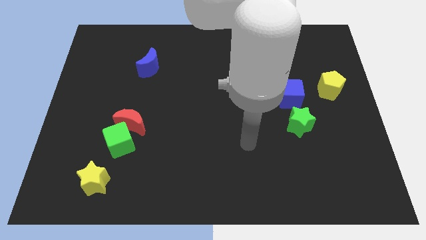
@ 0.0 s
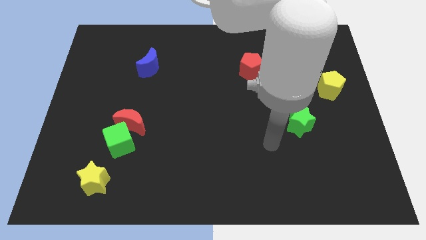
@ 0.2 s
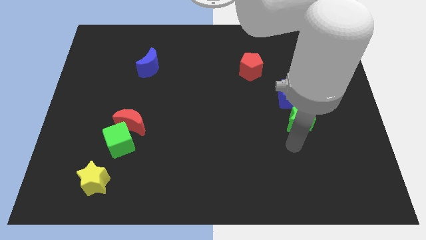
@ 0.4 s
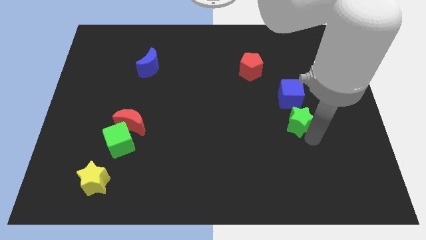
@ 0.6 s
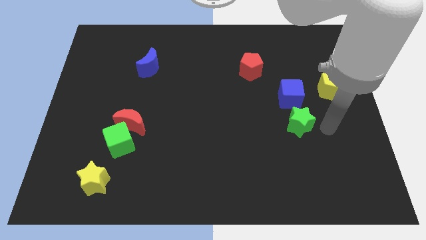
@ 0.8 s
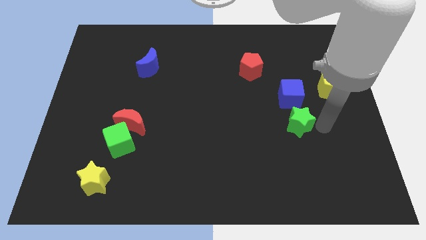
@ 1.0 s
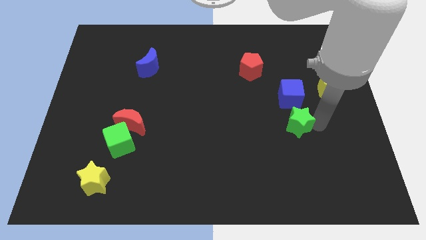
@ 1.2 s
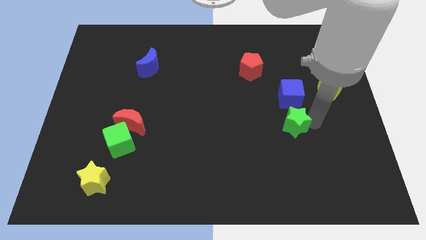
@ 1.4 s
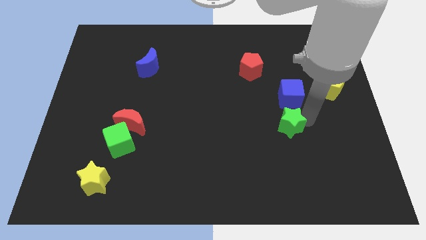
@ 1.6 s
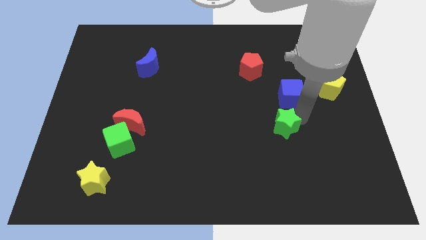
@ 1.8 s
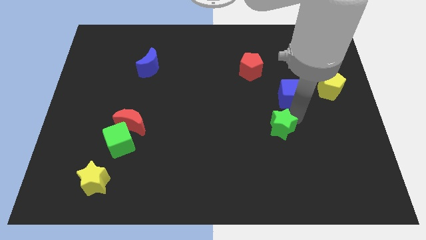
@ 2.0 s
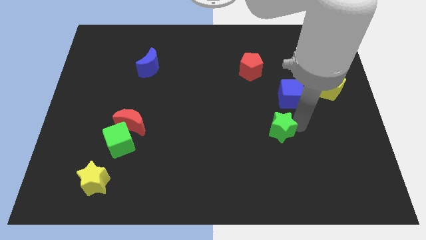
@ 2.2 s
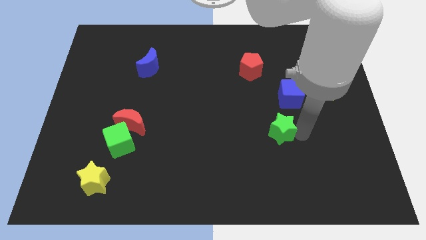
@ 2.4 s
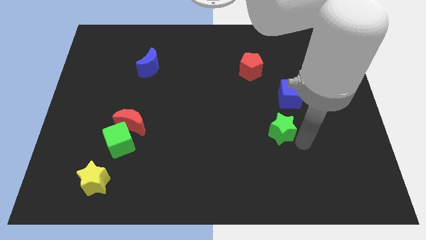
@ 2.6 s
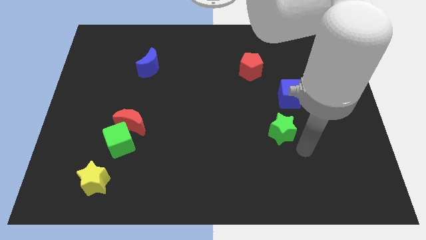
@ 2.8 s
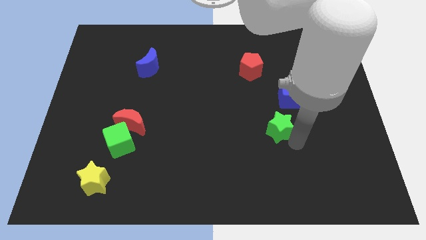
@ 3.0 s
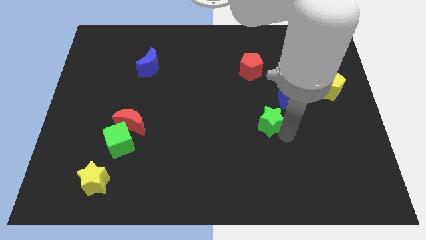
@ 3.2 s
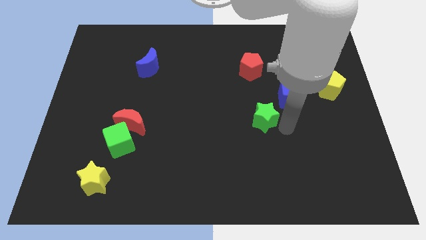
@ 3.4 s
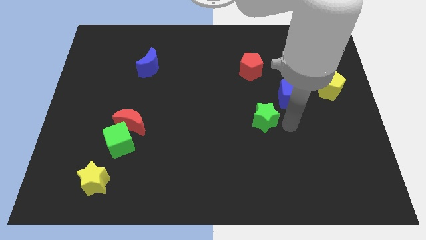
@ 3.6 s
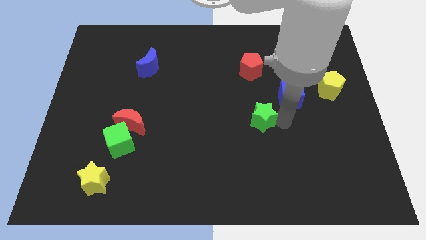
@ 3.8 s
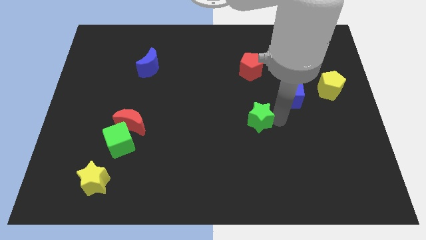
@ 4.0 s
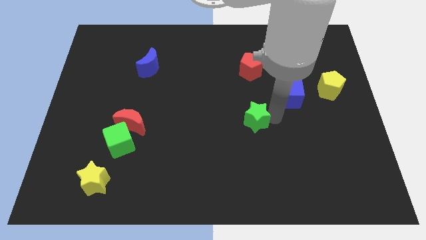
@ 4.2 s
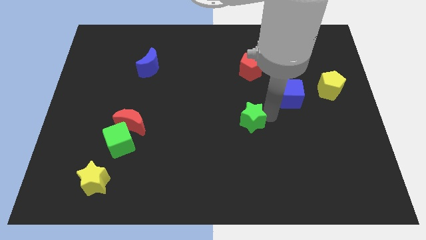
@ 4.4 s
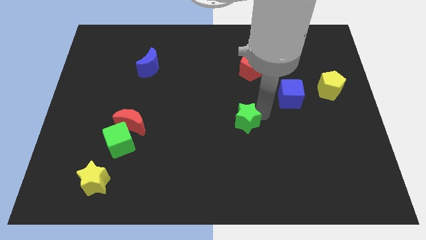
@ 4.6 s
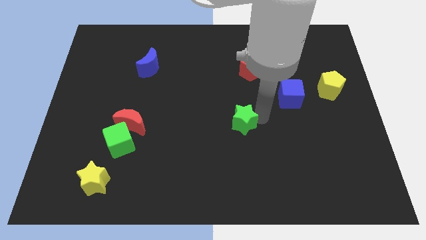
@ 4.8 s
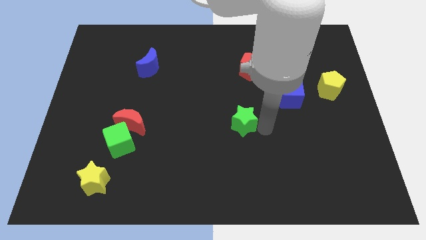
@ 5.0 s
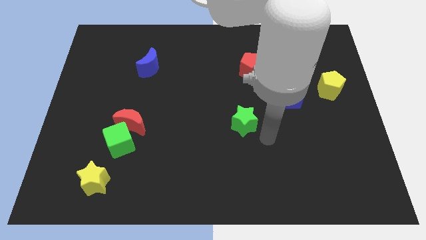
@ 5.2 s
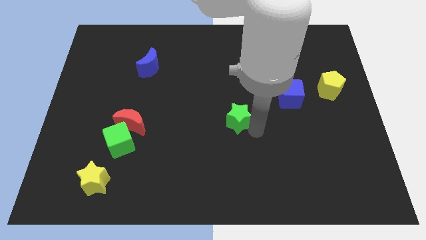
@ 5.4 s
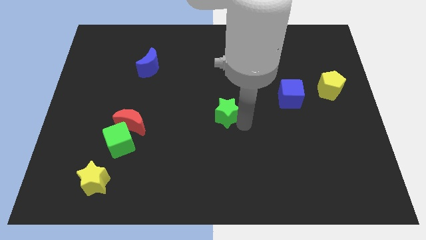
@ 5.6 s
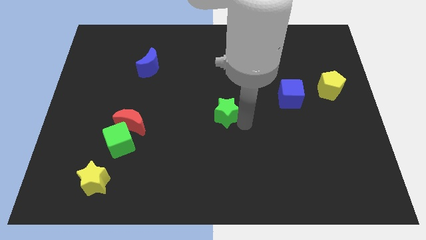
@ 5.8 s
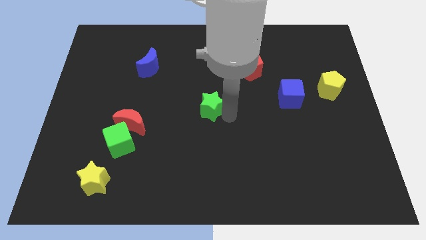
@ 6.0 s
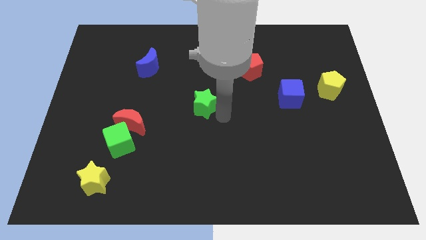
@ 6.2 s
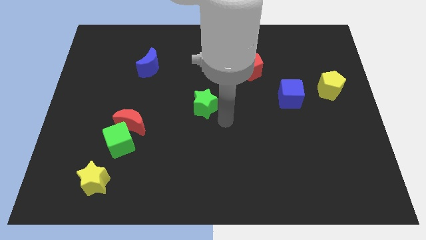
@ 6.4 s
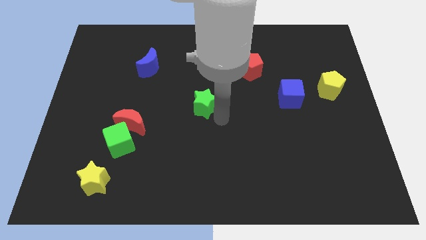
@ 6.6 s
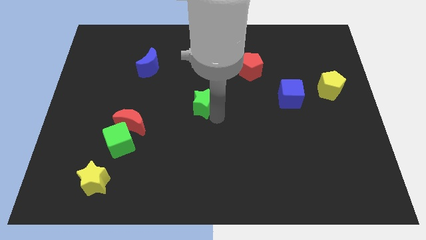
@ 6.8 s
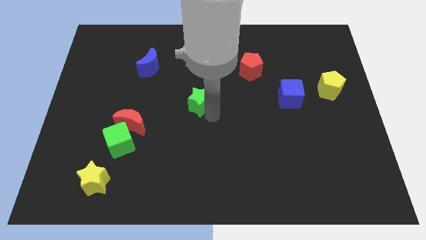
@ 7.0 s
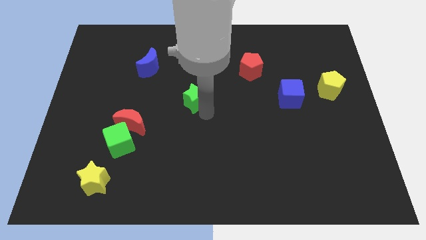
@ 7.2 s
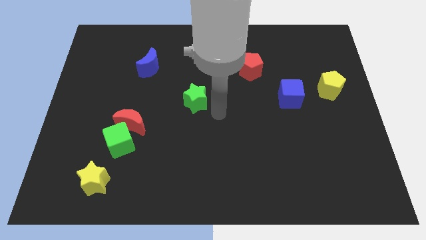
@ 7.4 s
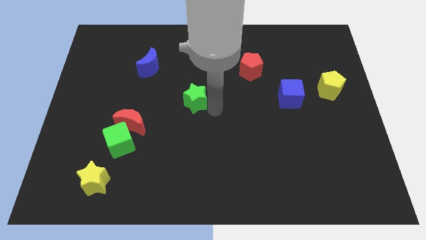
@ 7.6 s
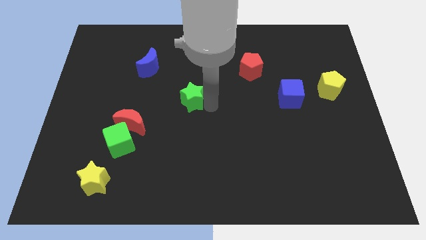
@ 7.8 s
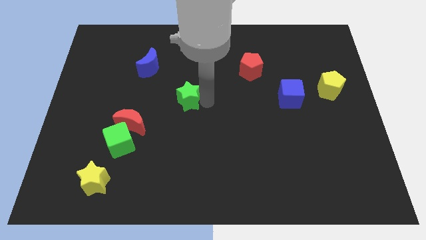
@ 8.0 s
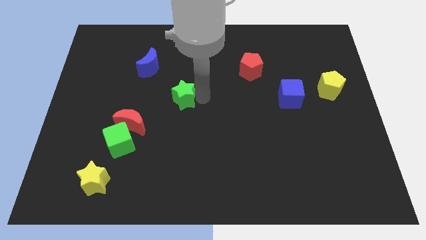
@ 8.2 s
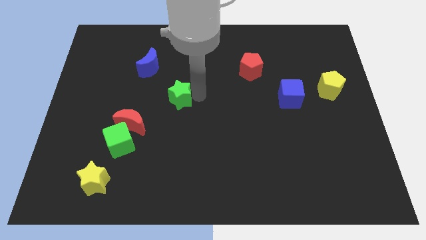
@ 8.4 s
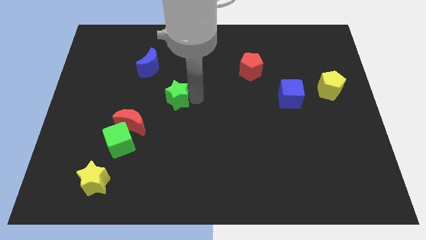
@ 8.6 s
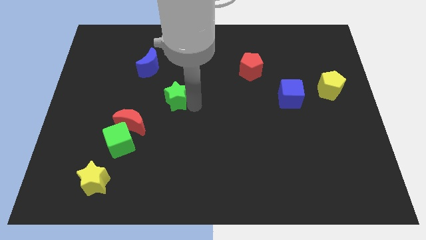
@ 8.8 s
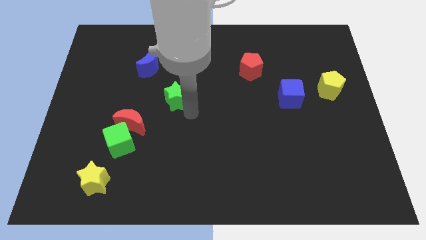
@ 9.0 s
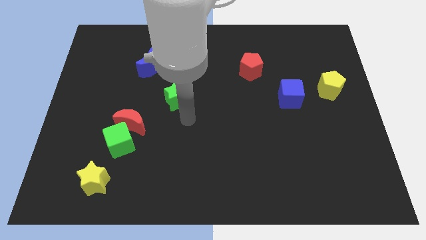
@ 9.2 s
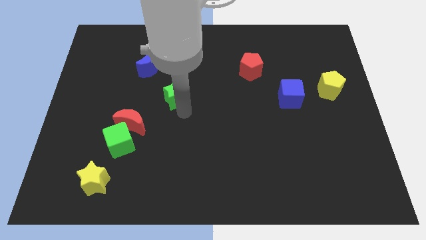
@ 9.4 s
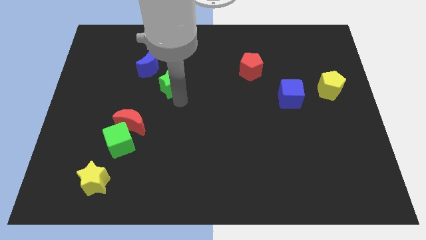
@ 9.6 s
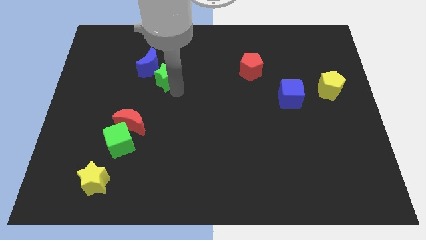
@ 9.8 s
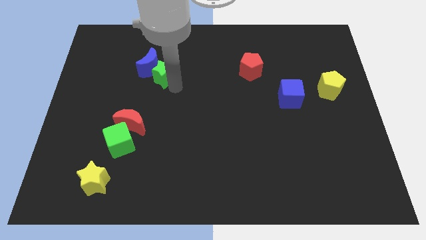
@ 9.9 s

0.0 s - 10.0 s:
slide the green star to the blue moon
